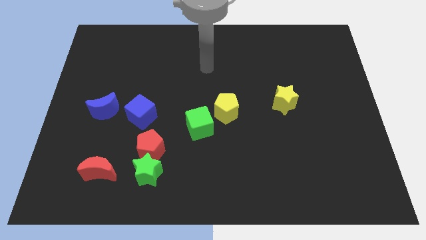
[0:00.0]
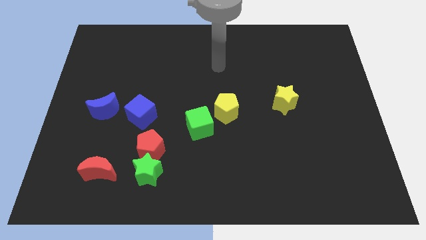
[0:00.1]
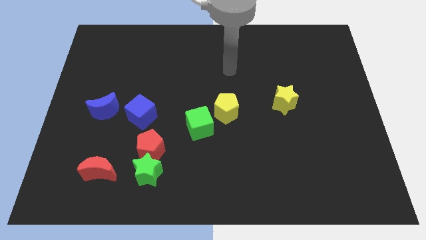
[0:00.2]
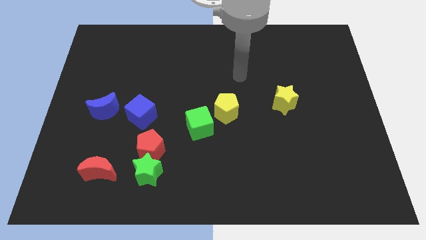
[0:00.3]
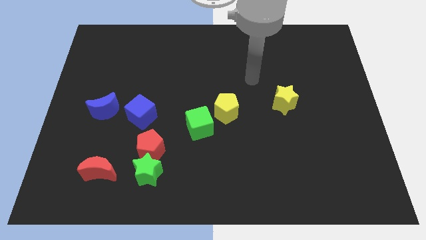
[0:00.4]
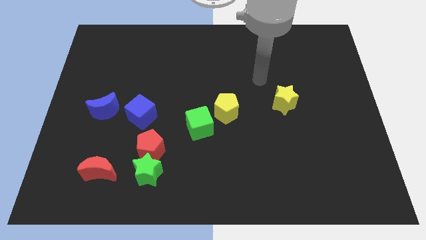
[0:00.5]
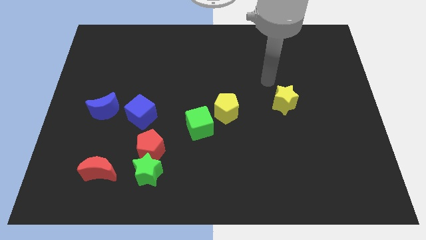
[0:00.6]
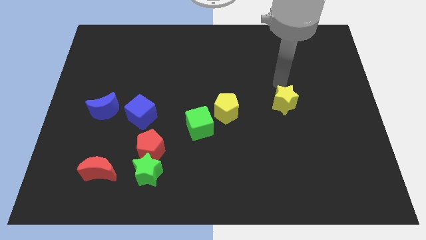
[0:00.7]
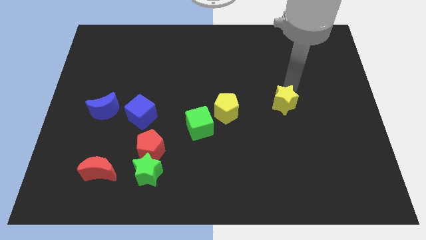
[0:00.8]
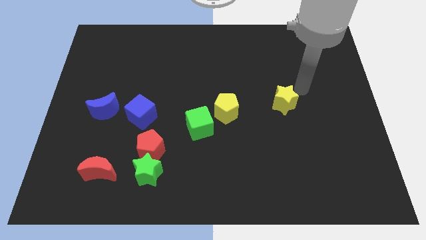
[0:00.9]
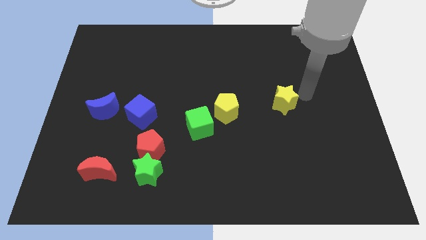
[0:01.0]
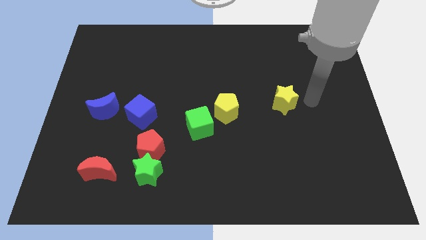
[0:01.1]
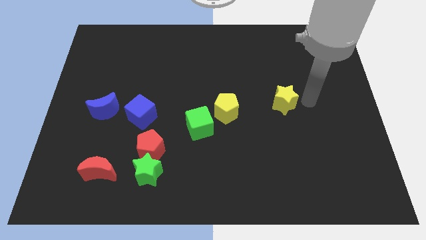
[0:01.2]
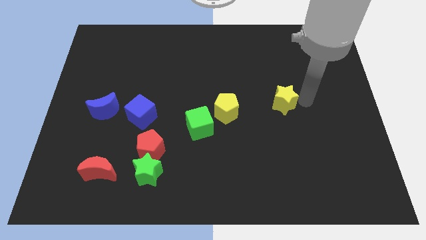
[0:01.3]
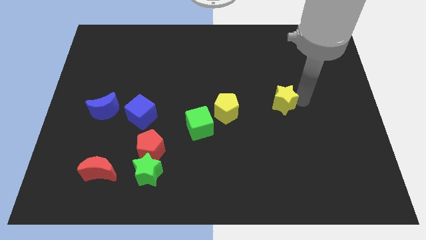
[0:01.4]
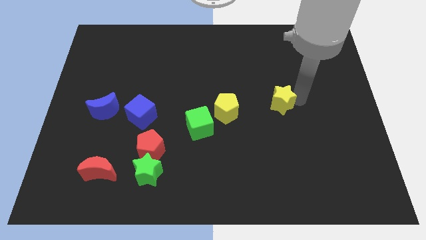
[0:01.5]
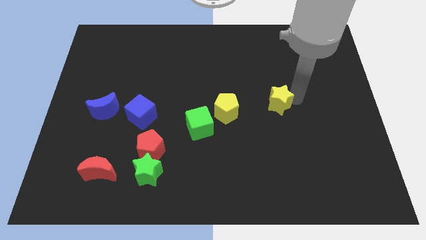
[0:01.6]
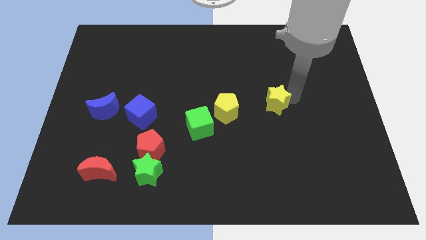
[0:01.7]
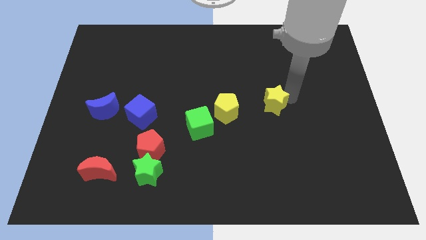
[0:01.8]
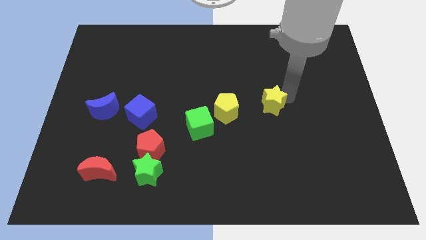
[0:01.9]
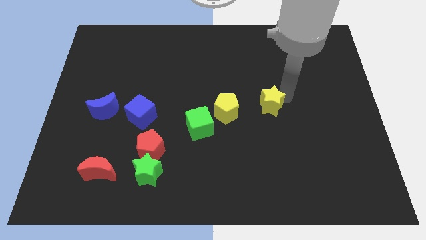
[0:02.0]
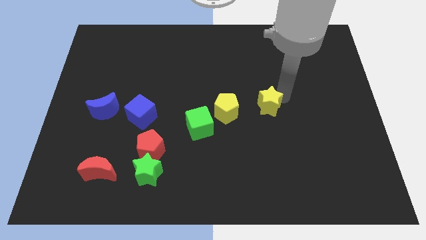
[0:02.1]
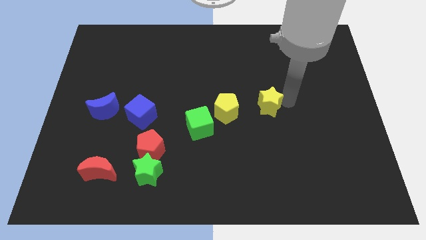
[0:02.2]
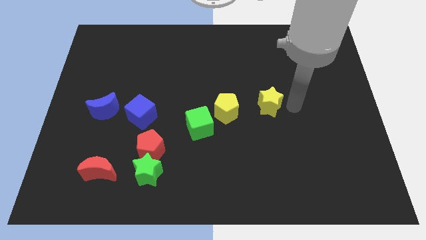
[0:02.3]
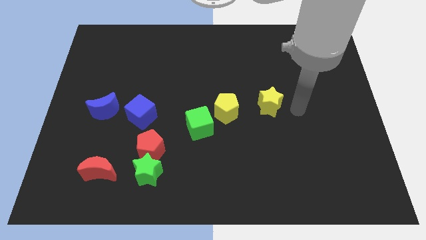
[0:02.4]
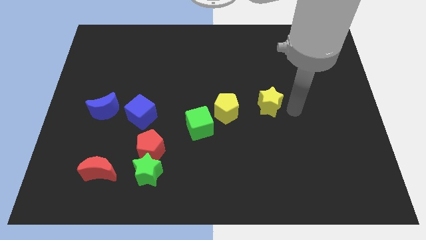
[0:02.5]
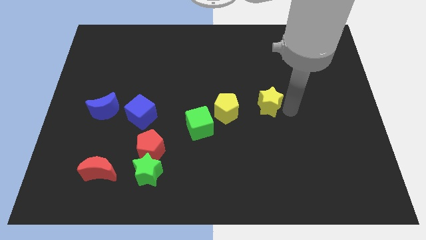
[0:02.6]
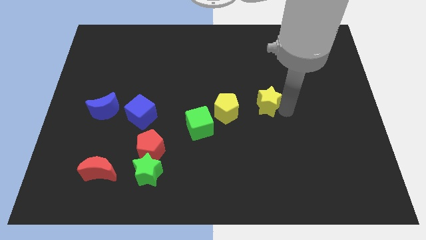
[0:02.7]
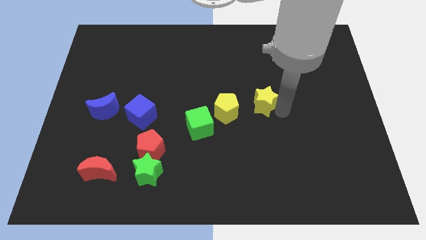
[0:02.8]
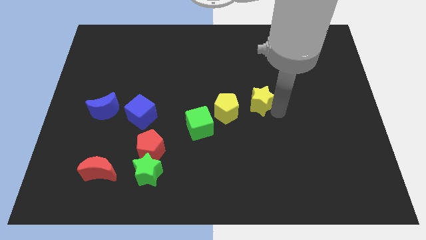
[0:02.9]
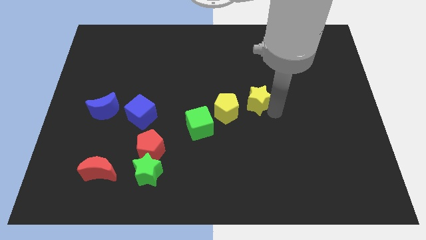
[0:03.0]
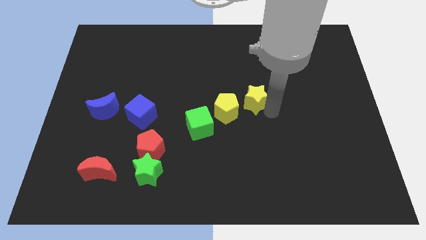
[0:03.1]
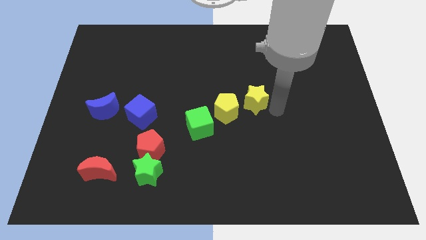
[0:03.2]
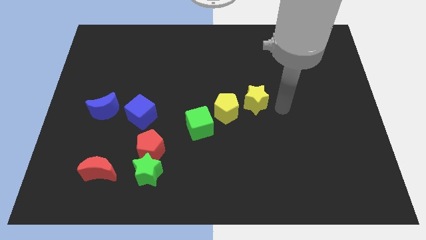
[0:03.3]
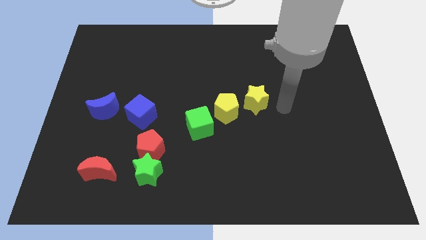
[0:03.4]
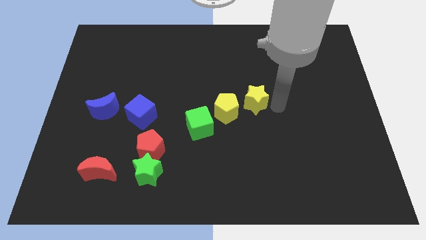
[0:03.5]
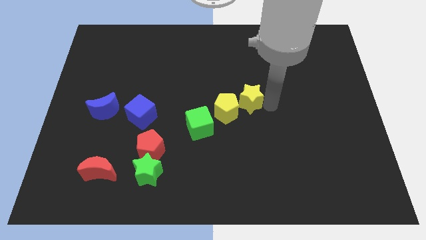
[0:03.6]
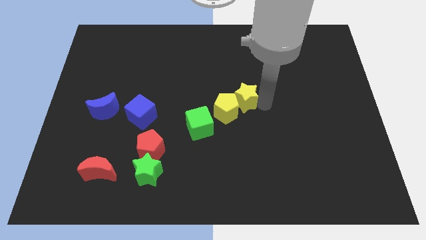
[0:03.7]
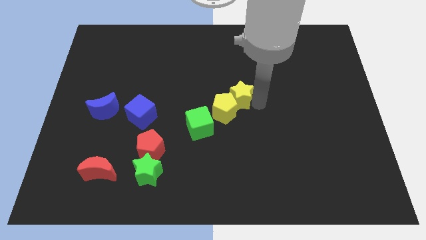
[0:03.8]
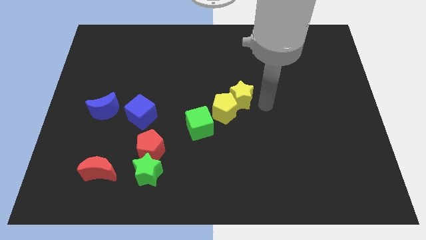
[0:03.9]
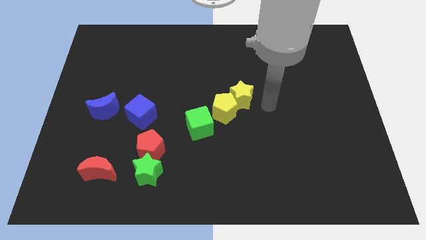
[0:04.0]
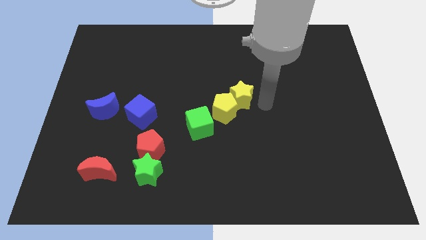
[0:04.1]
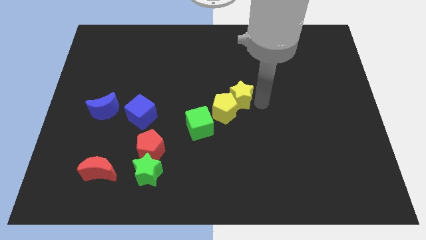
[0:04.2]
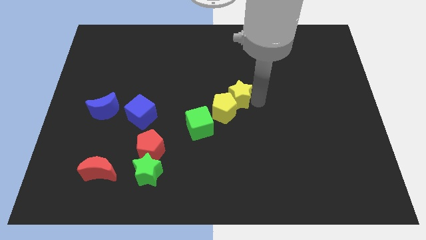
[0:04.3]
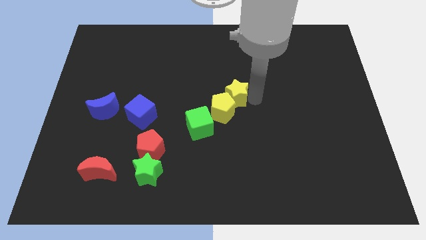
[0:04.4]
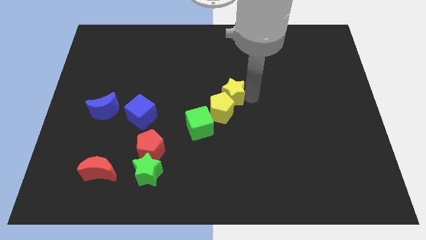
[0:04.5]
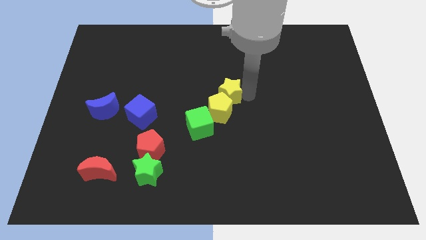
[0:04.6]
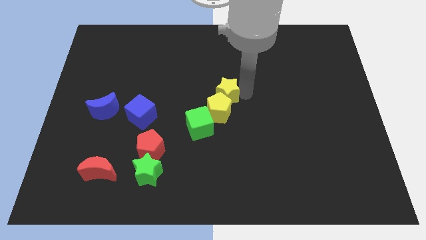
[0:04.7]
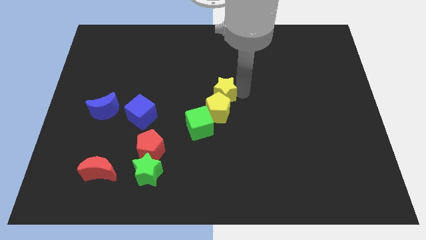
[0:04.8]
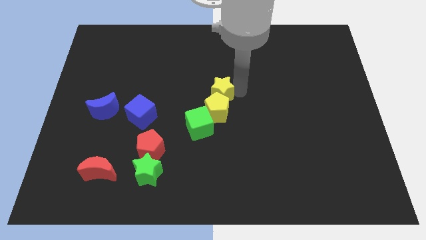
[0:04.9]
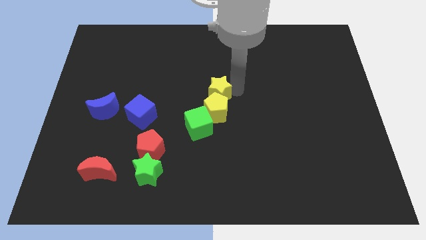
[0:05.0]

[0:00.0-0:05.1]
put the yellow star to the top side of the green cube

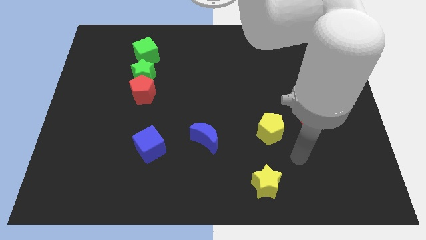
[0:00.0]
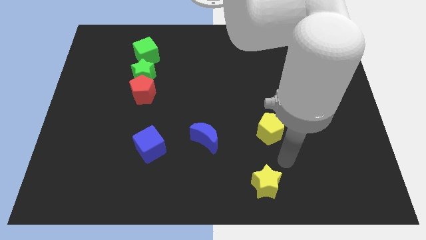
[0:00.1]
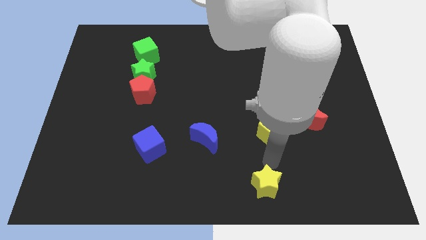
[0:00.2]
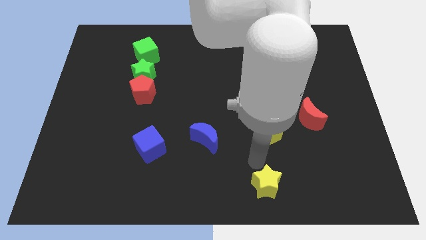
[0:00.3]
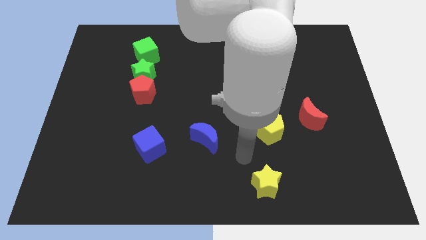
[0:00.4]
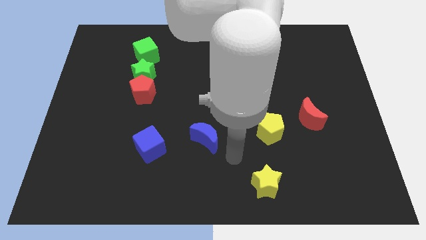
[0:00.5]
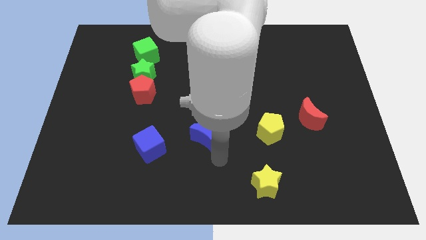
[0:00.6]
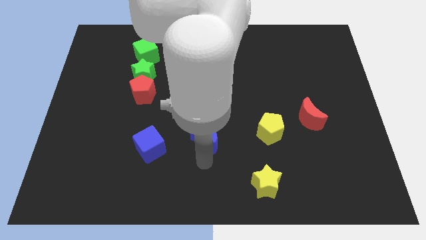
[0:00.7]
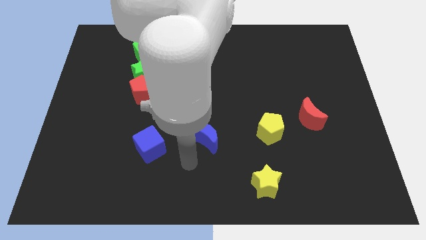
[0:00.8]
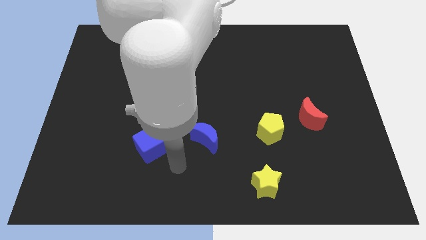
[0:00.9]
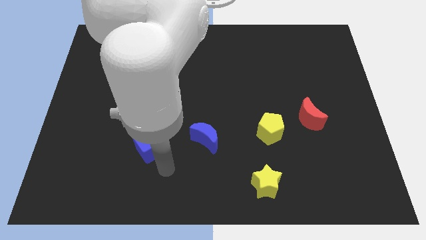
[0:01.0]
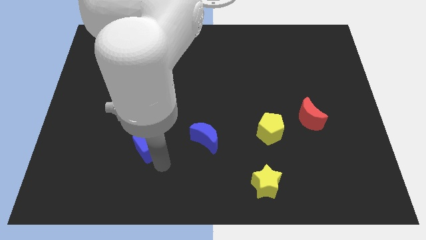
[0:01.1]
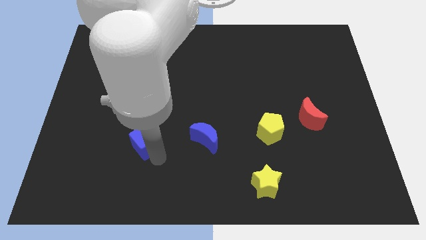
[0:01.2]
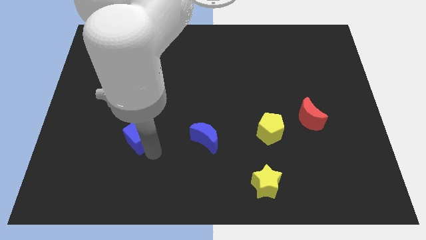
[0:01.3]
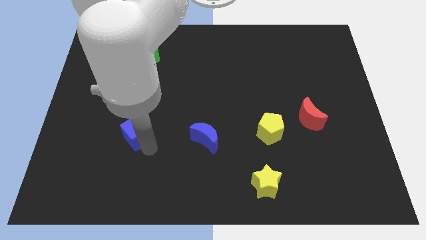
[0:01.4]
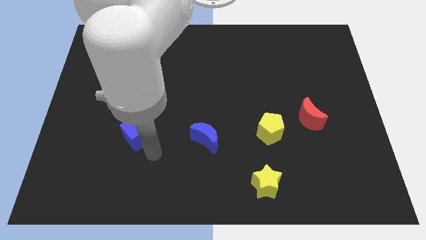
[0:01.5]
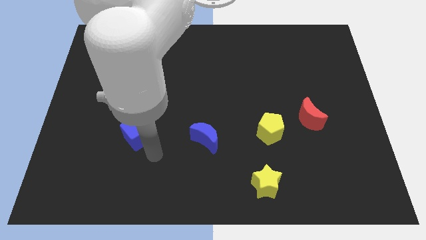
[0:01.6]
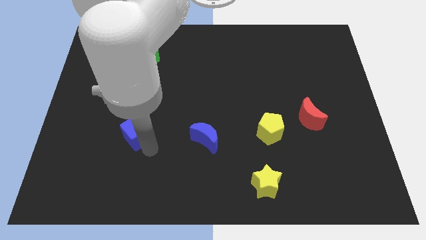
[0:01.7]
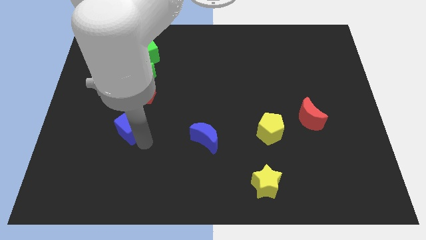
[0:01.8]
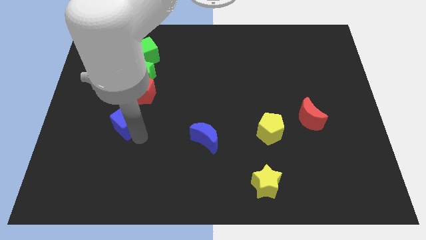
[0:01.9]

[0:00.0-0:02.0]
push the blue cube to the bottom left of the red pentagon

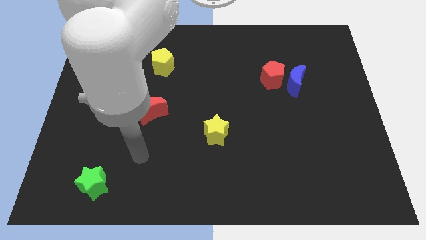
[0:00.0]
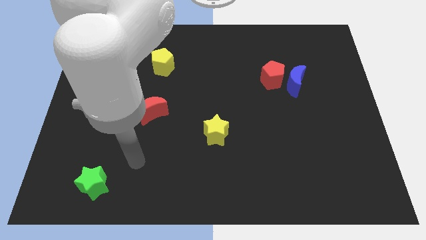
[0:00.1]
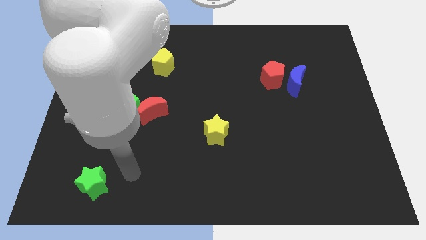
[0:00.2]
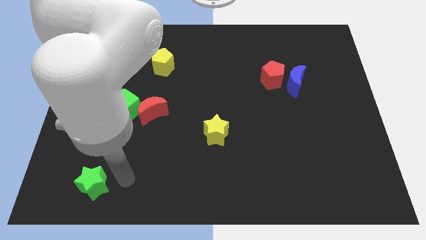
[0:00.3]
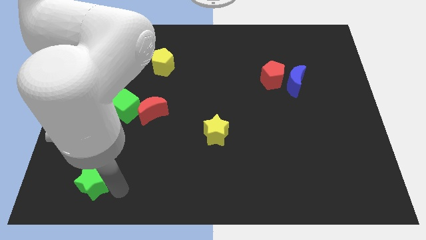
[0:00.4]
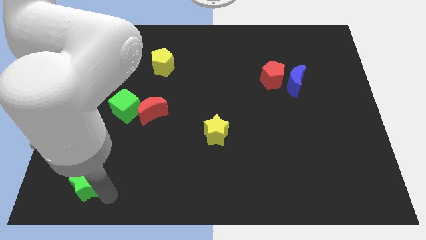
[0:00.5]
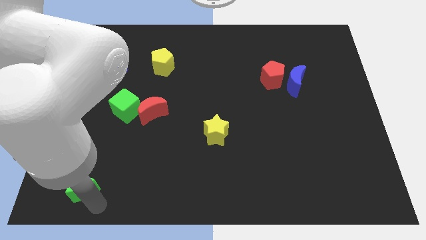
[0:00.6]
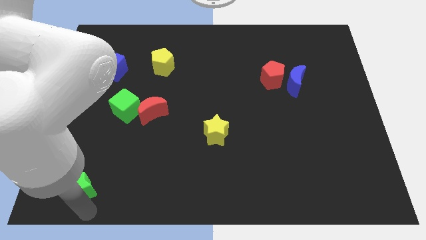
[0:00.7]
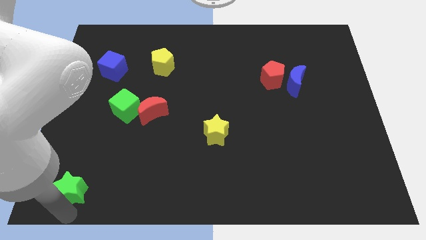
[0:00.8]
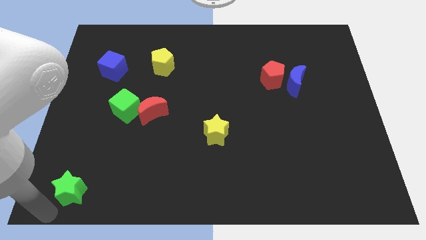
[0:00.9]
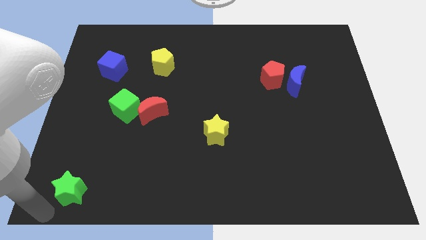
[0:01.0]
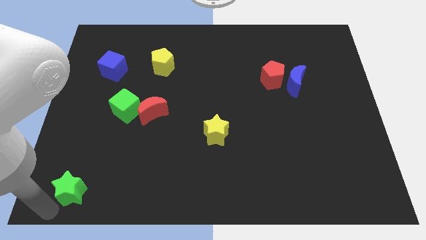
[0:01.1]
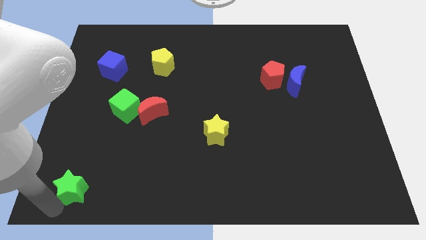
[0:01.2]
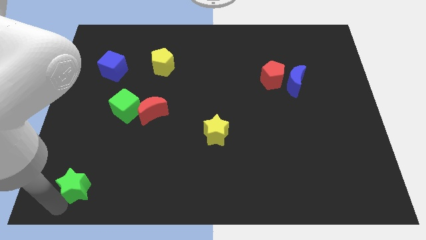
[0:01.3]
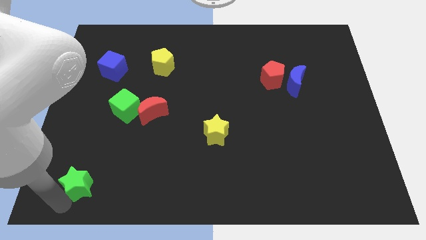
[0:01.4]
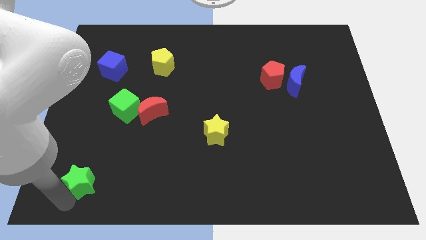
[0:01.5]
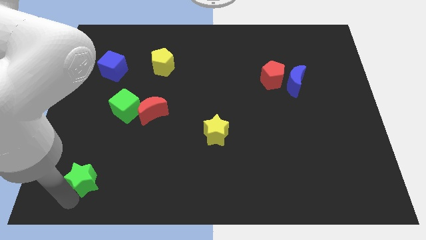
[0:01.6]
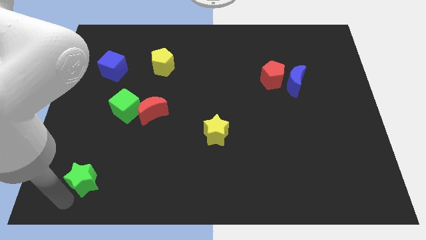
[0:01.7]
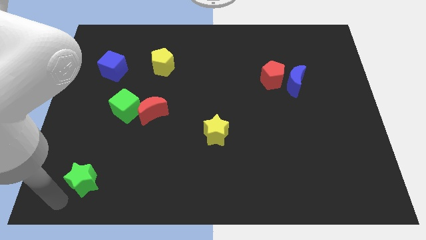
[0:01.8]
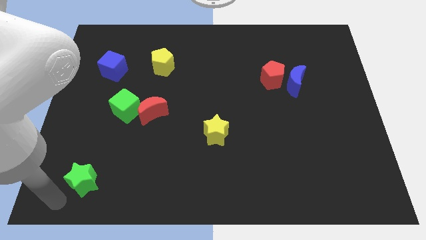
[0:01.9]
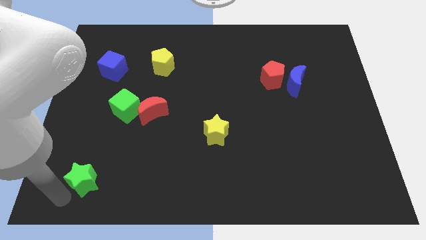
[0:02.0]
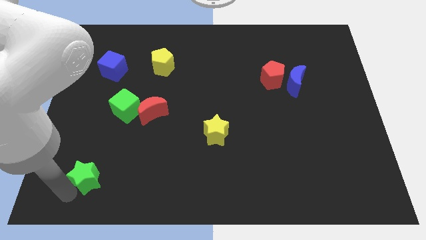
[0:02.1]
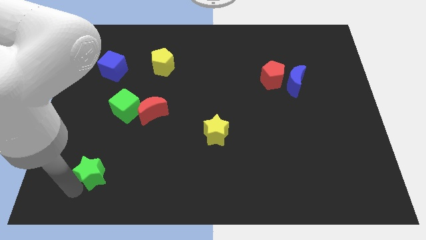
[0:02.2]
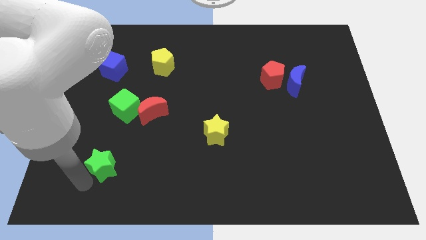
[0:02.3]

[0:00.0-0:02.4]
move the green star to the bottom of the green cube
